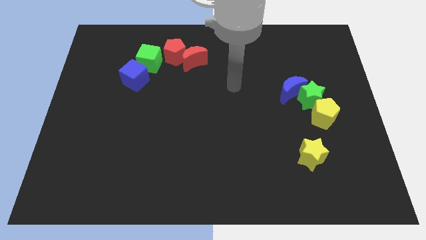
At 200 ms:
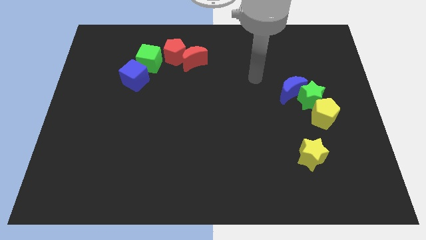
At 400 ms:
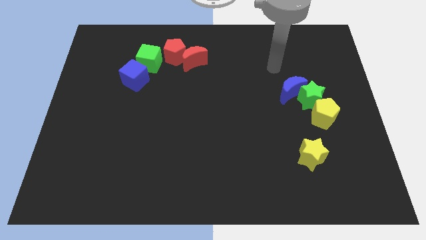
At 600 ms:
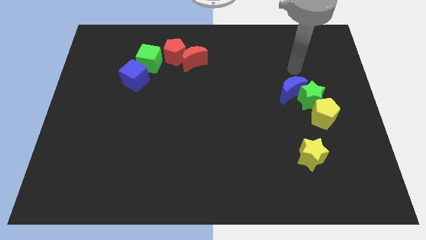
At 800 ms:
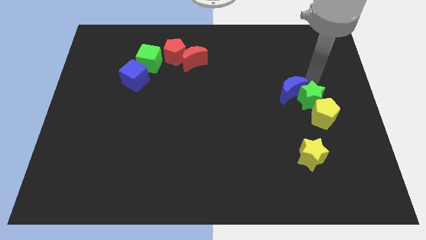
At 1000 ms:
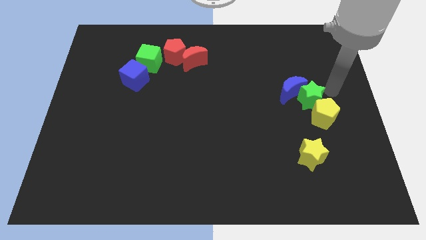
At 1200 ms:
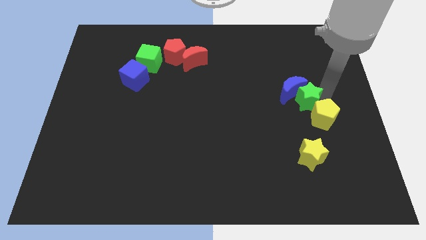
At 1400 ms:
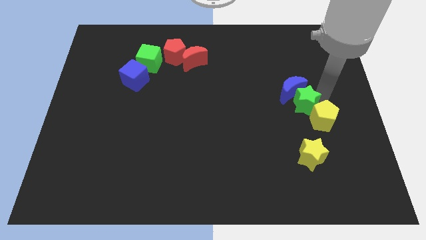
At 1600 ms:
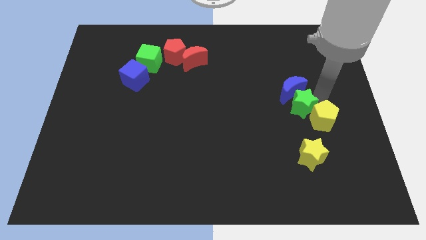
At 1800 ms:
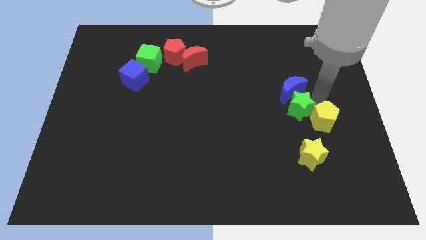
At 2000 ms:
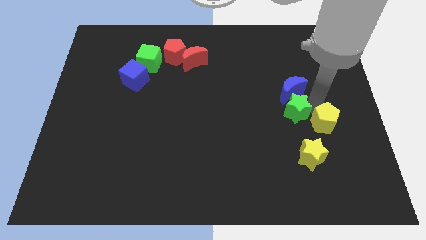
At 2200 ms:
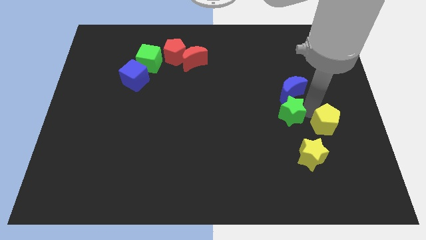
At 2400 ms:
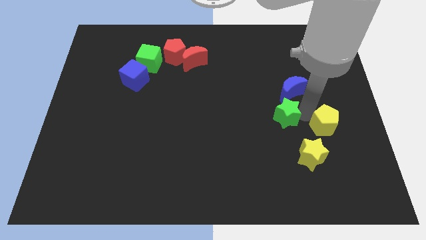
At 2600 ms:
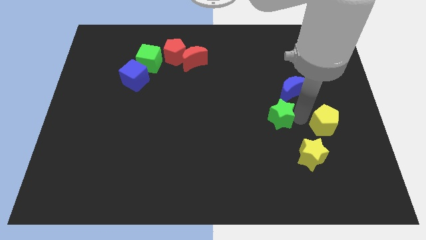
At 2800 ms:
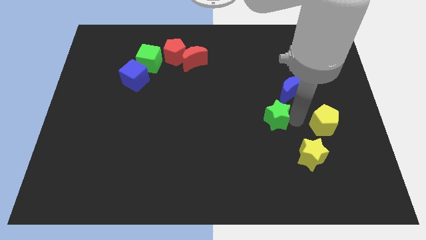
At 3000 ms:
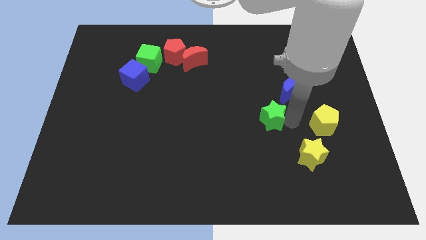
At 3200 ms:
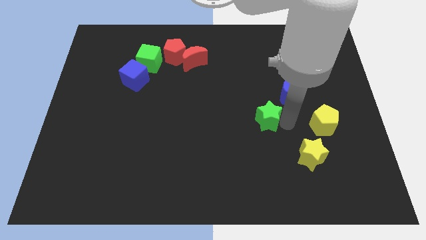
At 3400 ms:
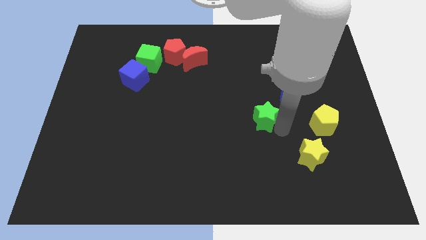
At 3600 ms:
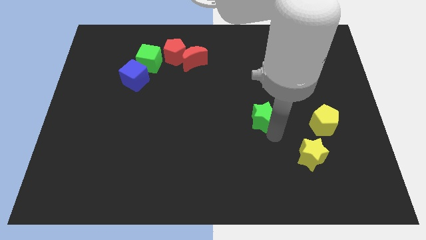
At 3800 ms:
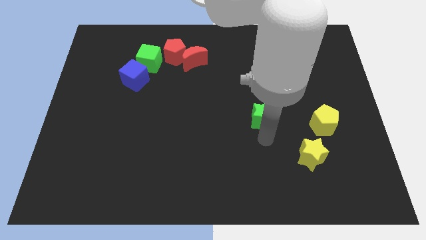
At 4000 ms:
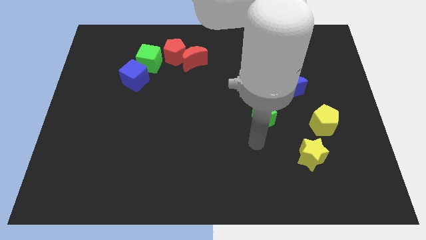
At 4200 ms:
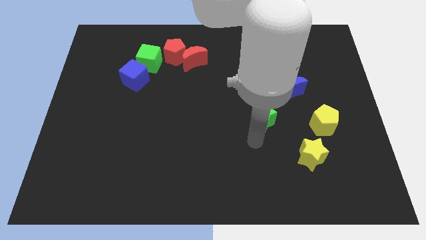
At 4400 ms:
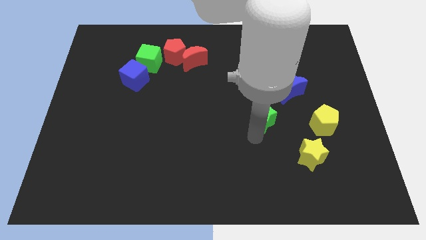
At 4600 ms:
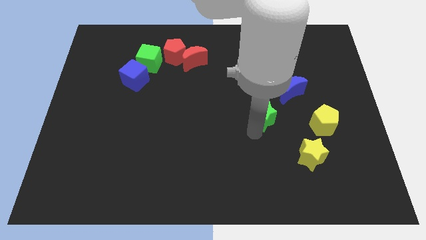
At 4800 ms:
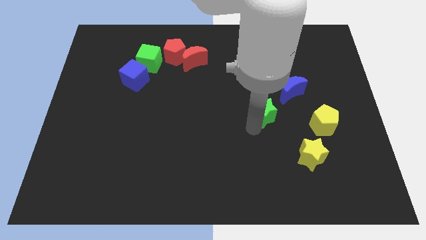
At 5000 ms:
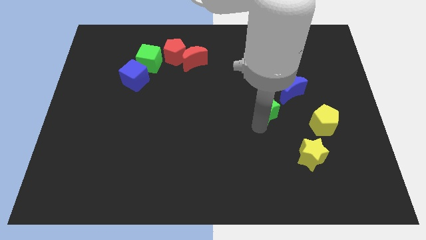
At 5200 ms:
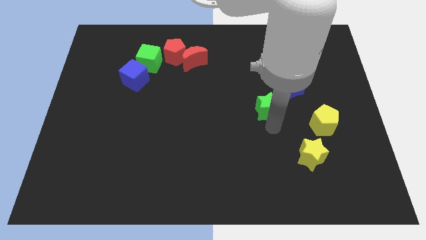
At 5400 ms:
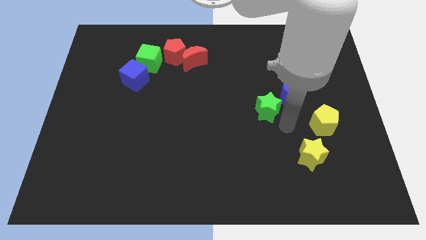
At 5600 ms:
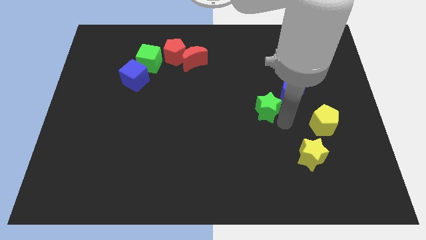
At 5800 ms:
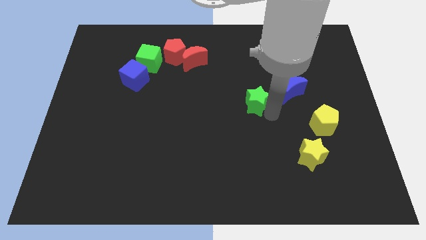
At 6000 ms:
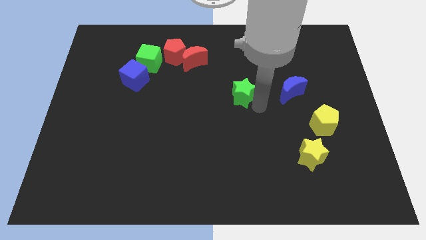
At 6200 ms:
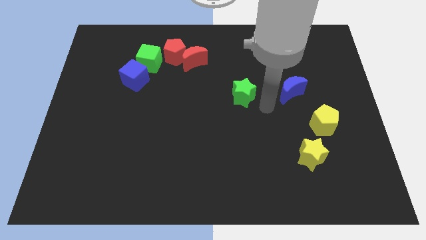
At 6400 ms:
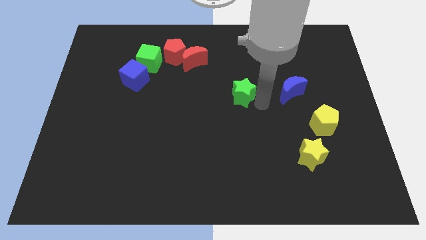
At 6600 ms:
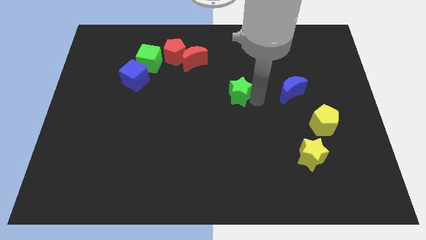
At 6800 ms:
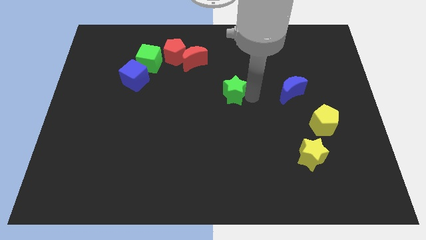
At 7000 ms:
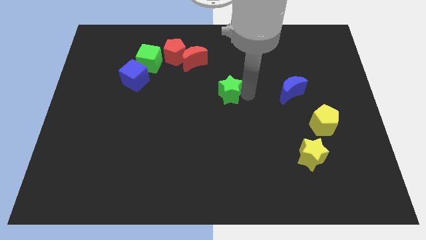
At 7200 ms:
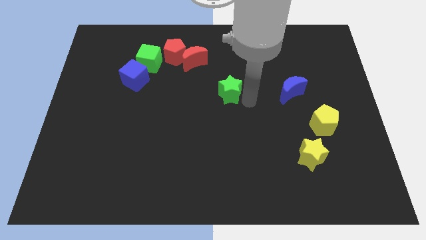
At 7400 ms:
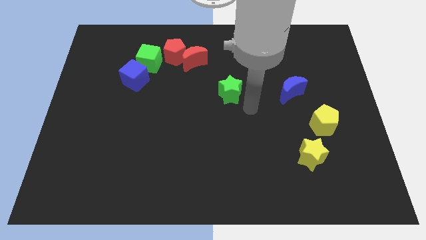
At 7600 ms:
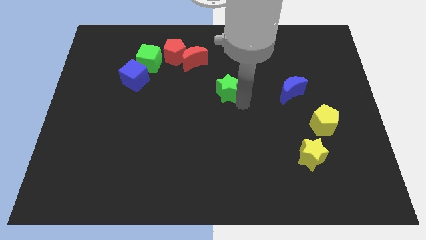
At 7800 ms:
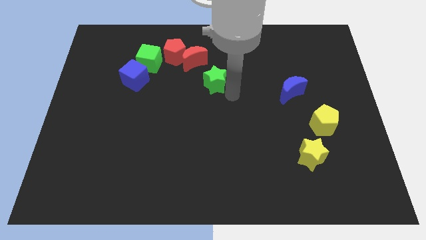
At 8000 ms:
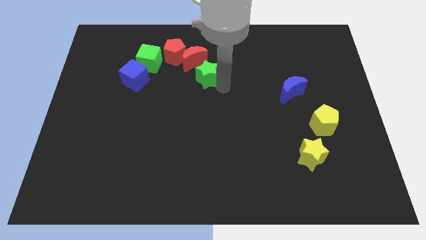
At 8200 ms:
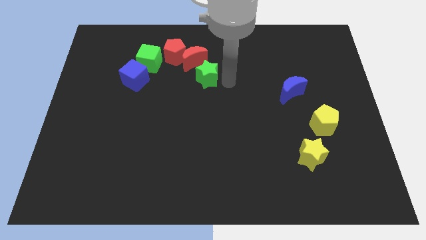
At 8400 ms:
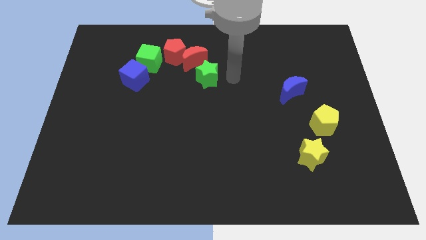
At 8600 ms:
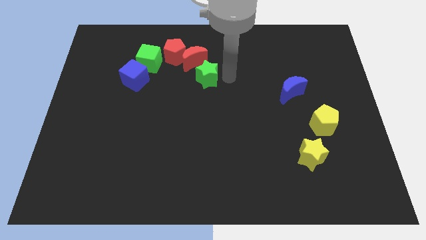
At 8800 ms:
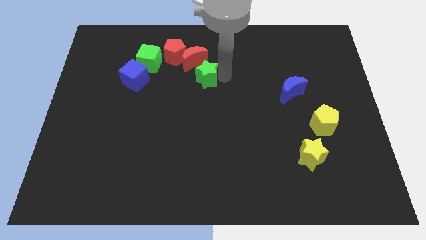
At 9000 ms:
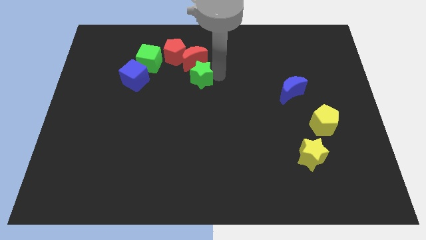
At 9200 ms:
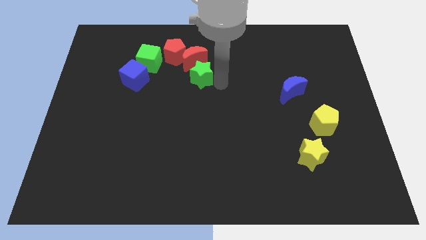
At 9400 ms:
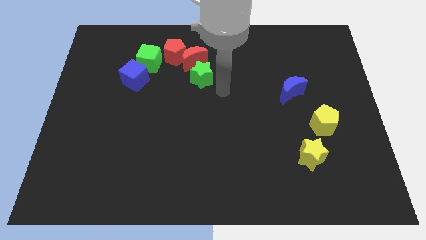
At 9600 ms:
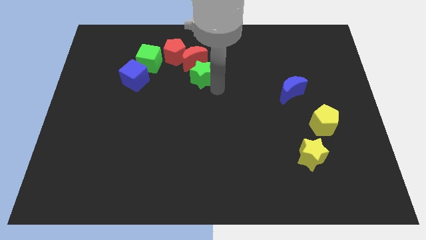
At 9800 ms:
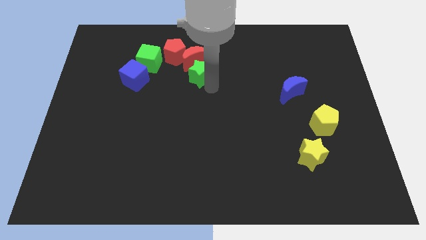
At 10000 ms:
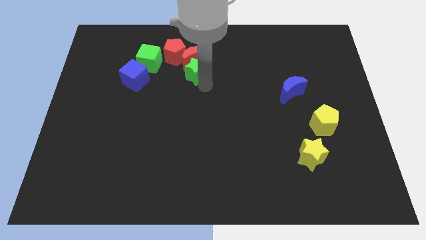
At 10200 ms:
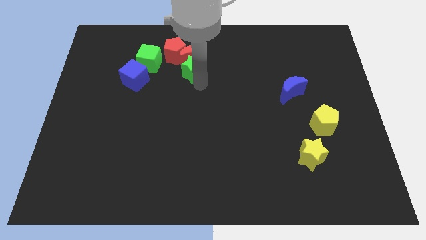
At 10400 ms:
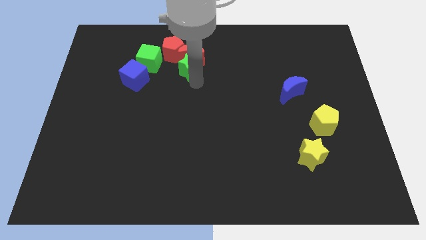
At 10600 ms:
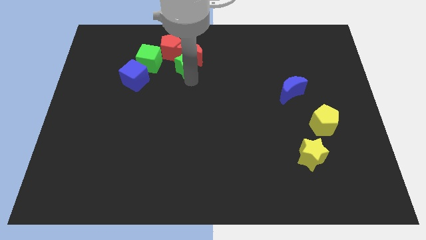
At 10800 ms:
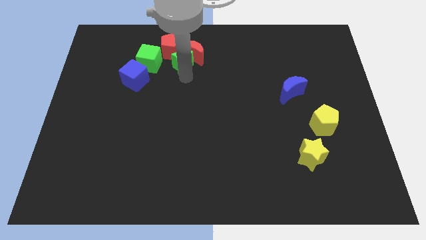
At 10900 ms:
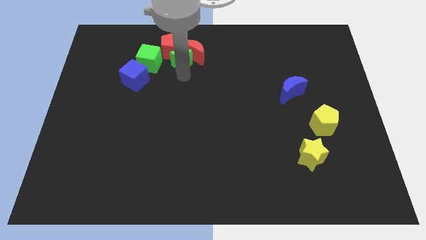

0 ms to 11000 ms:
move the green star towards the red pentagon

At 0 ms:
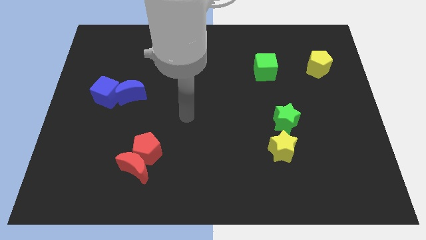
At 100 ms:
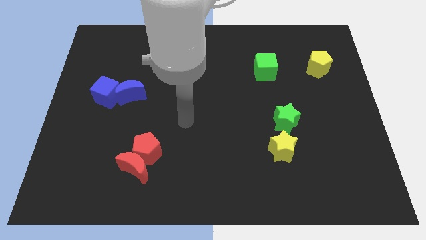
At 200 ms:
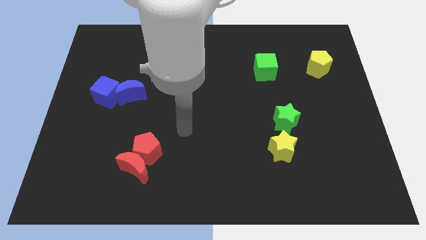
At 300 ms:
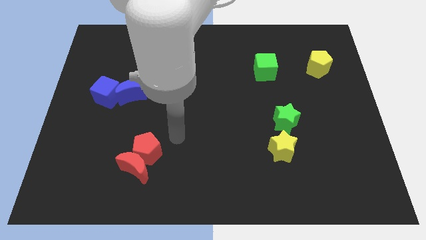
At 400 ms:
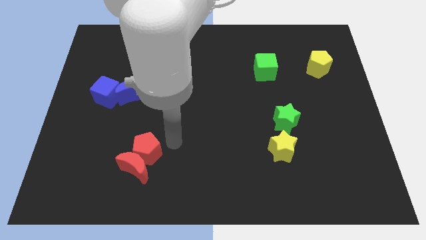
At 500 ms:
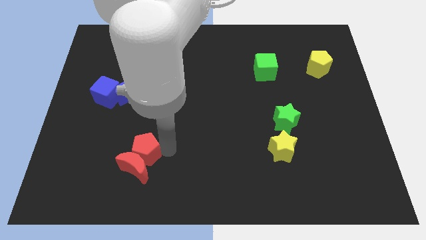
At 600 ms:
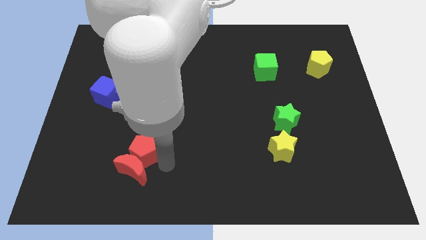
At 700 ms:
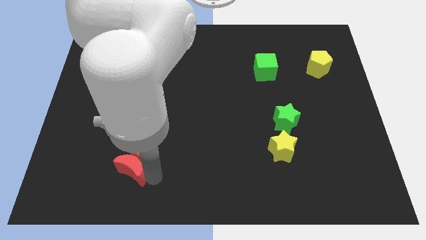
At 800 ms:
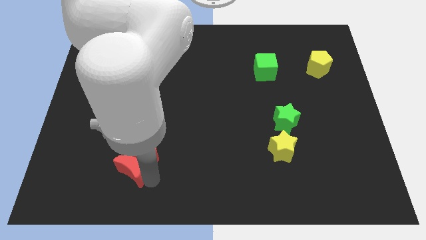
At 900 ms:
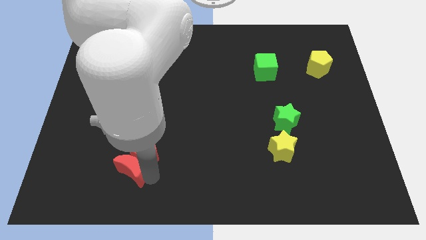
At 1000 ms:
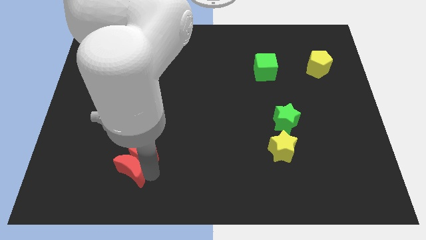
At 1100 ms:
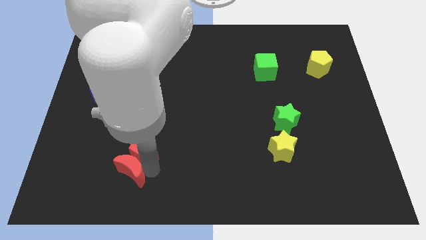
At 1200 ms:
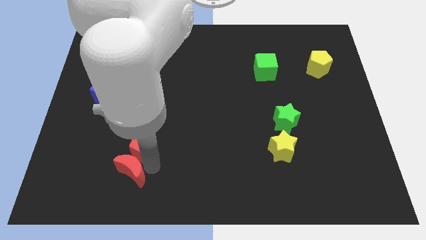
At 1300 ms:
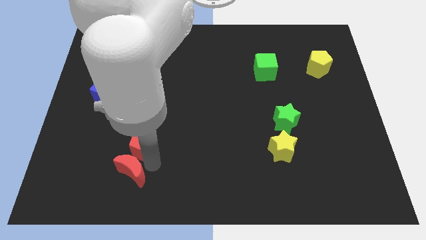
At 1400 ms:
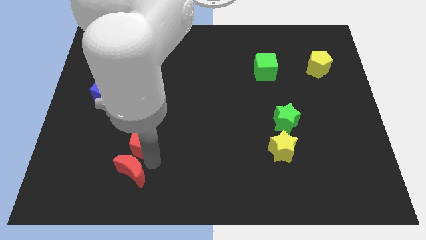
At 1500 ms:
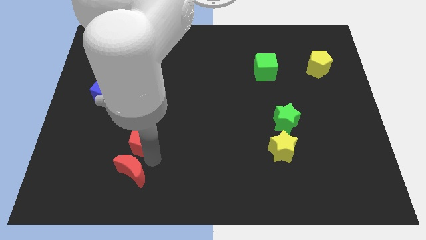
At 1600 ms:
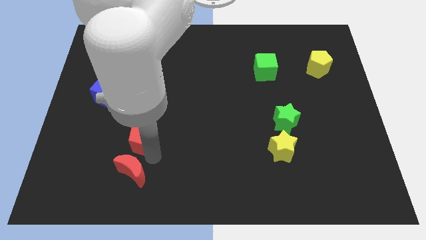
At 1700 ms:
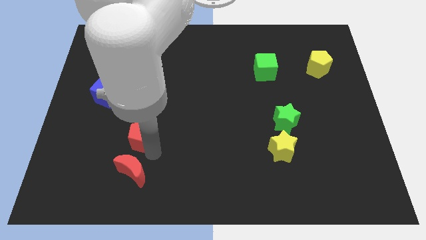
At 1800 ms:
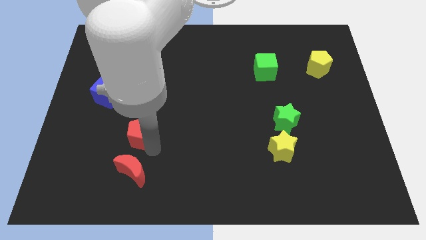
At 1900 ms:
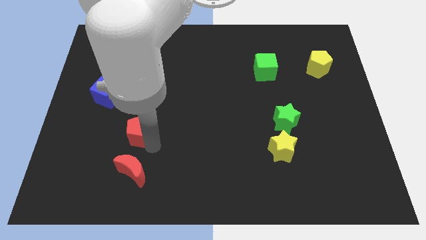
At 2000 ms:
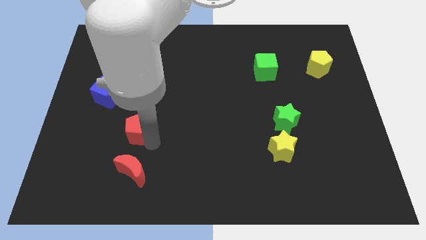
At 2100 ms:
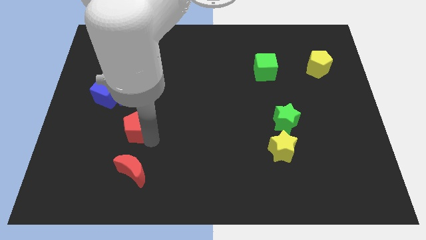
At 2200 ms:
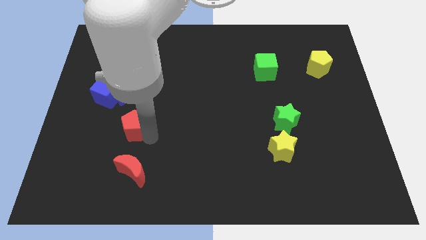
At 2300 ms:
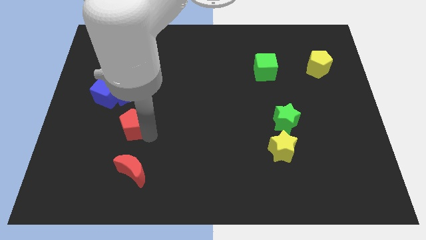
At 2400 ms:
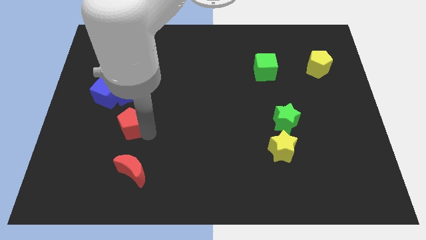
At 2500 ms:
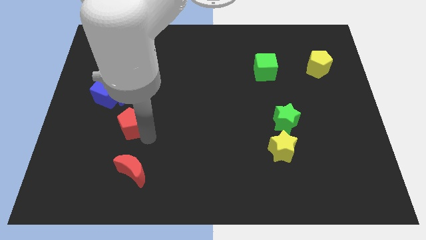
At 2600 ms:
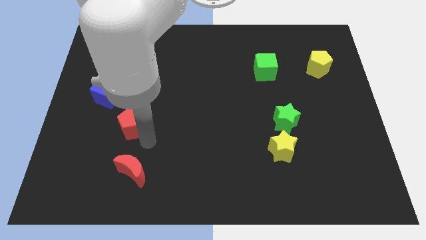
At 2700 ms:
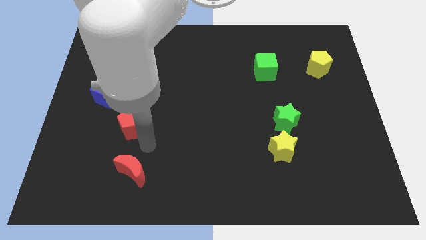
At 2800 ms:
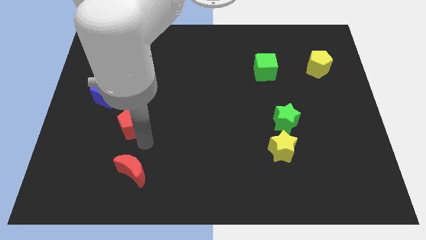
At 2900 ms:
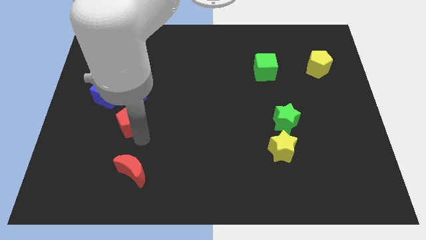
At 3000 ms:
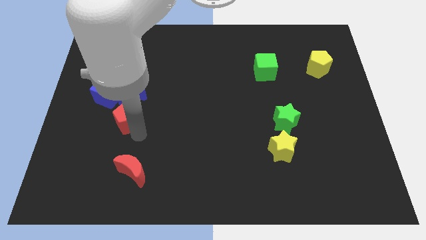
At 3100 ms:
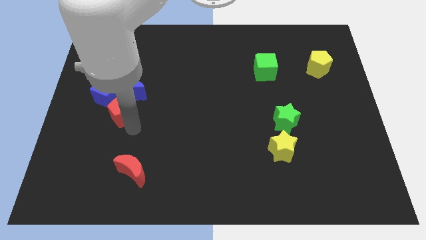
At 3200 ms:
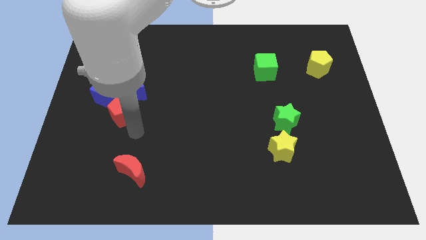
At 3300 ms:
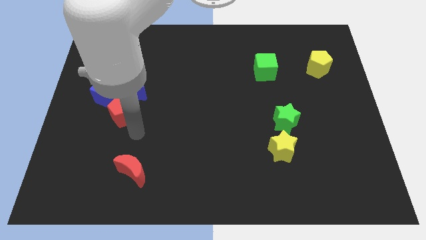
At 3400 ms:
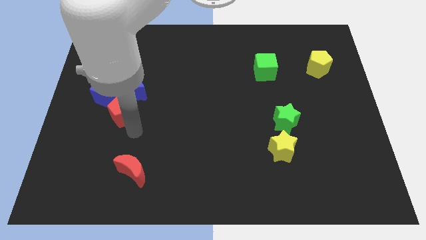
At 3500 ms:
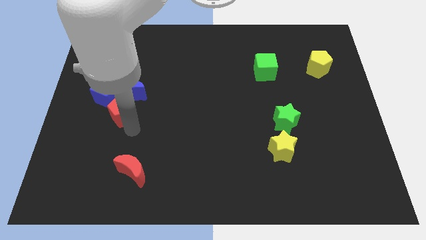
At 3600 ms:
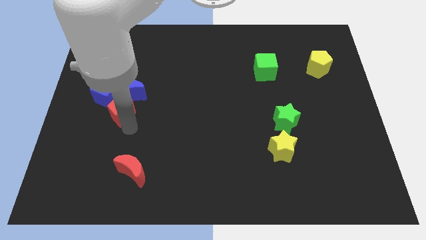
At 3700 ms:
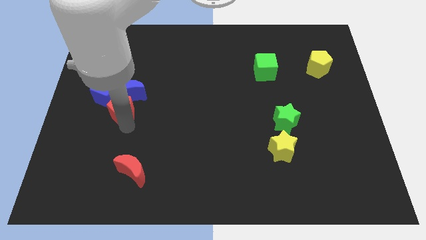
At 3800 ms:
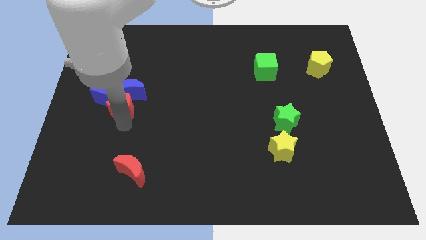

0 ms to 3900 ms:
put the red pentagon next to the blue cube
